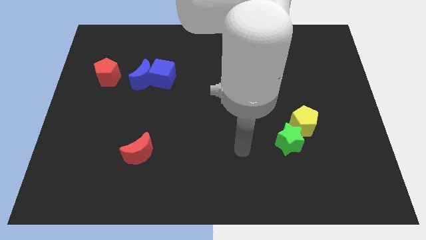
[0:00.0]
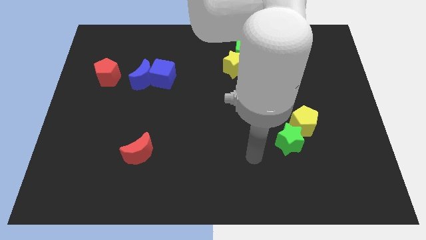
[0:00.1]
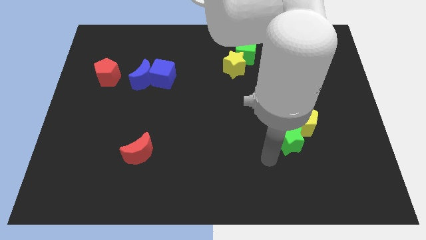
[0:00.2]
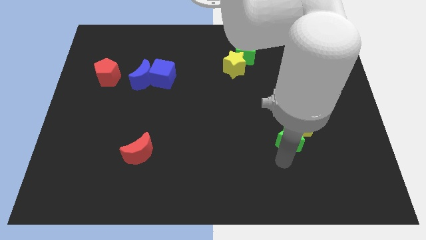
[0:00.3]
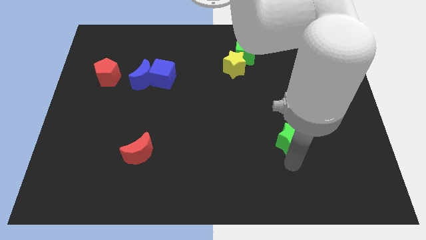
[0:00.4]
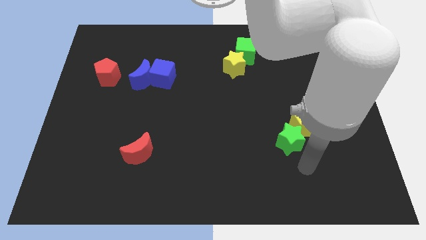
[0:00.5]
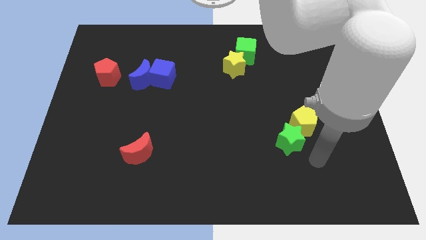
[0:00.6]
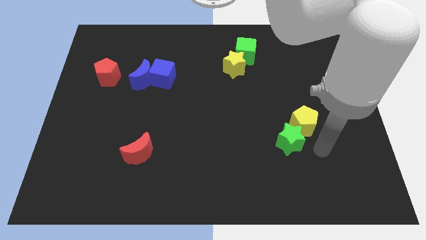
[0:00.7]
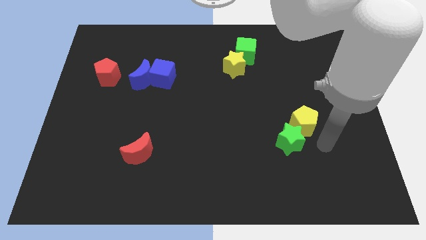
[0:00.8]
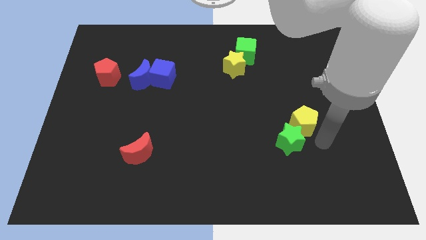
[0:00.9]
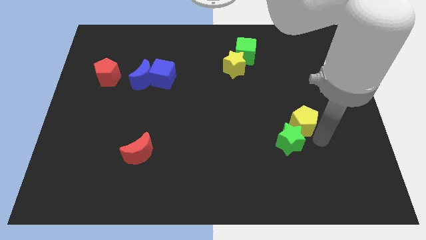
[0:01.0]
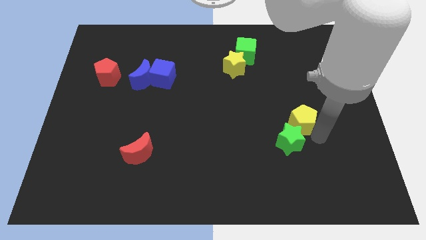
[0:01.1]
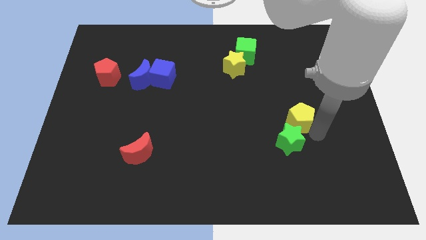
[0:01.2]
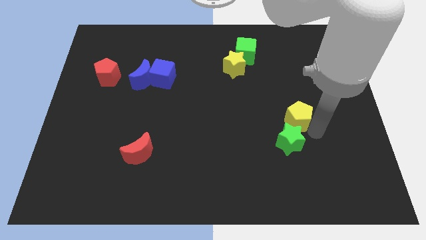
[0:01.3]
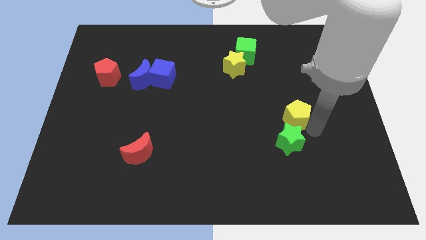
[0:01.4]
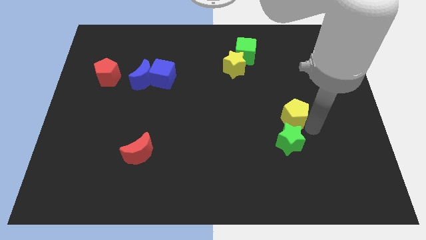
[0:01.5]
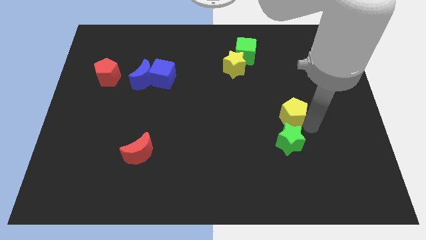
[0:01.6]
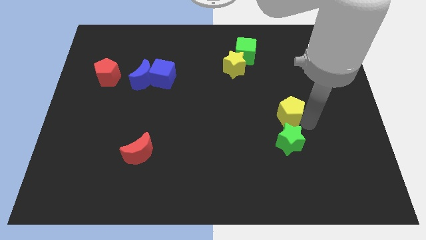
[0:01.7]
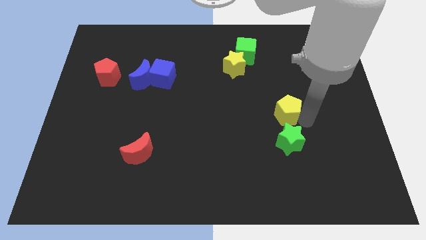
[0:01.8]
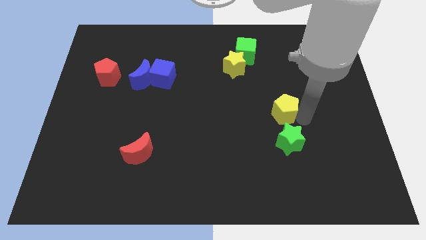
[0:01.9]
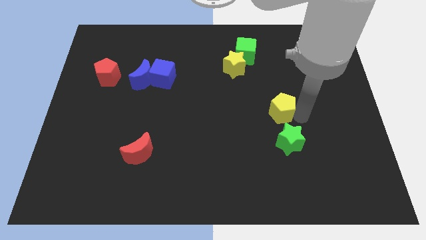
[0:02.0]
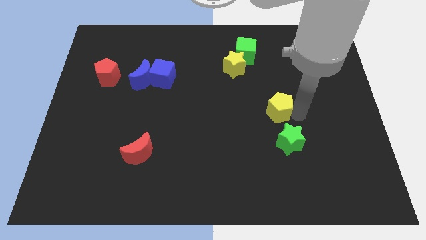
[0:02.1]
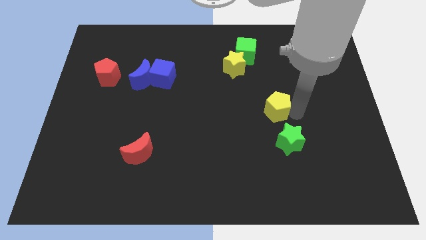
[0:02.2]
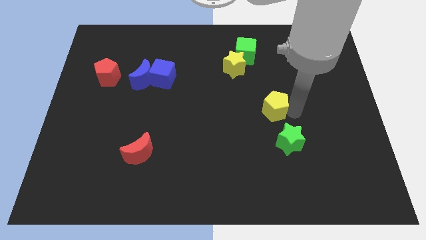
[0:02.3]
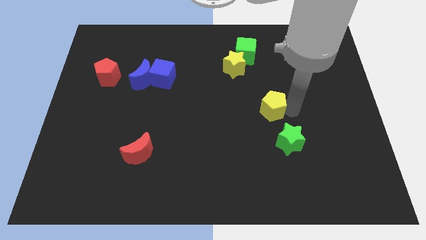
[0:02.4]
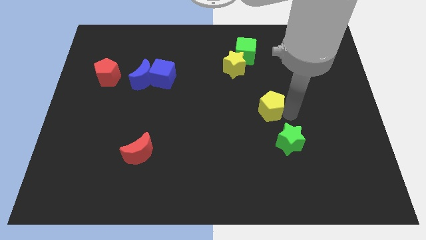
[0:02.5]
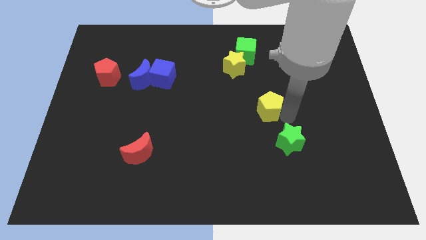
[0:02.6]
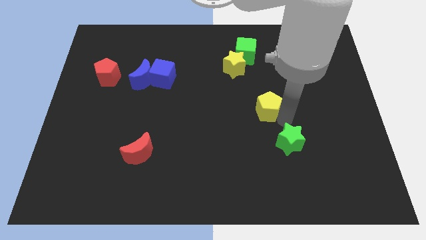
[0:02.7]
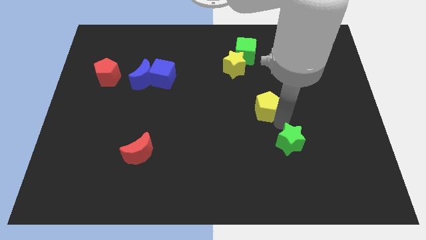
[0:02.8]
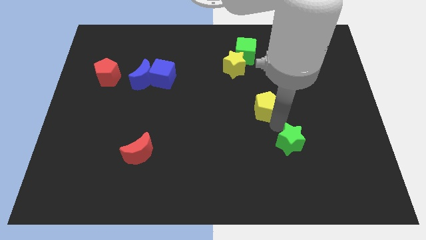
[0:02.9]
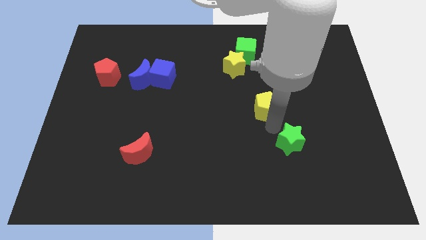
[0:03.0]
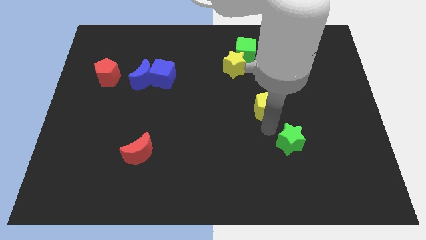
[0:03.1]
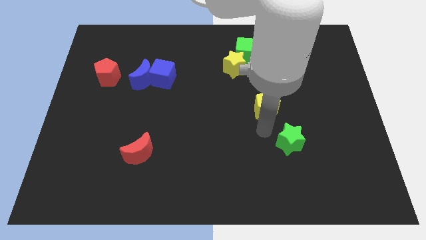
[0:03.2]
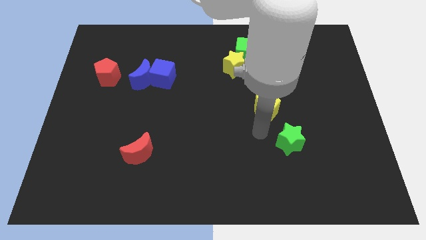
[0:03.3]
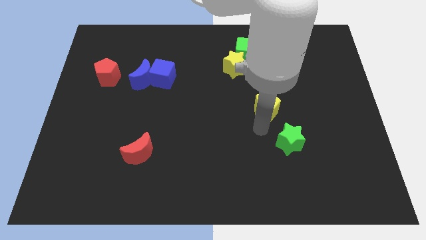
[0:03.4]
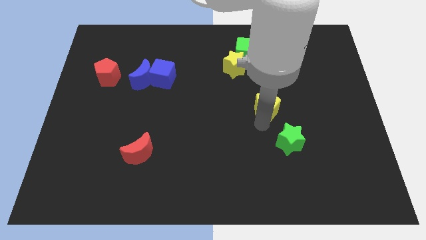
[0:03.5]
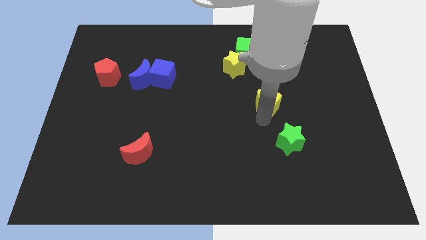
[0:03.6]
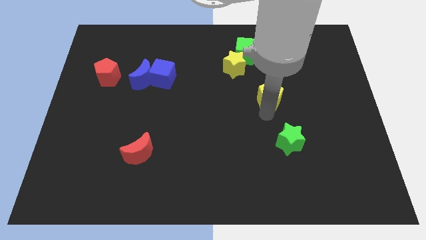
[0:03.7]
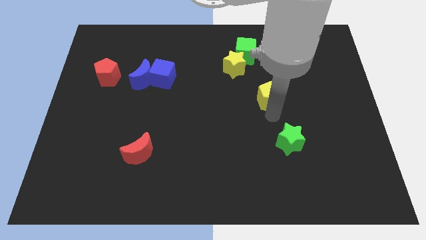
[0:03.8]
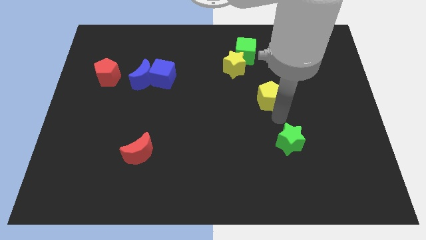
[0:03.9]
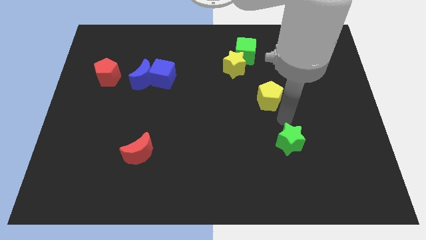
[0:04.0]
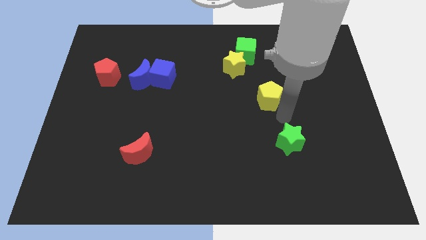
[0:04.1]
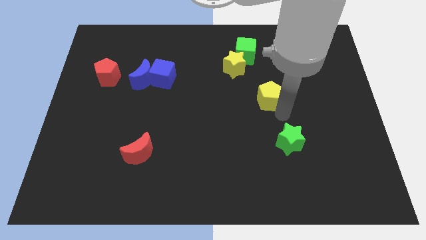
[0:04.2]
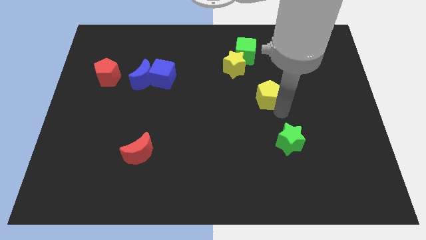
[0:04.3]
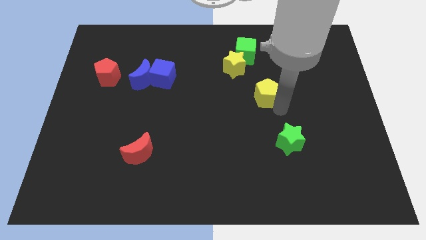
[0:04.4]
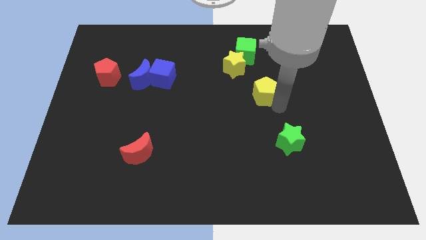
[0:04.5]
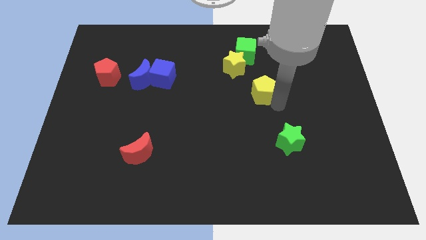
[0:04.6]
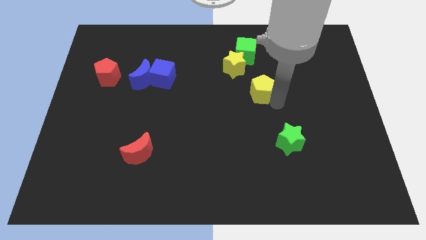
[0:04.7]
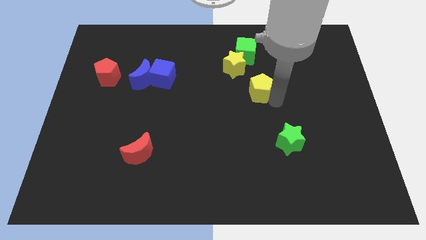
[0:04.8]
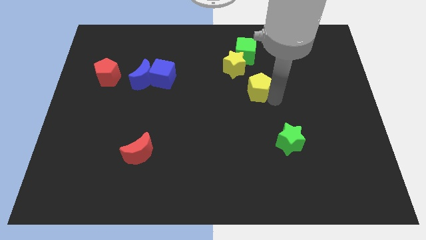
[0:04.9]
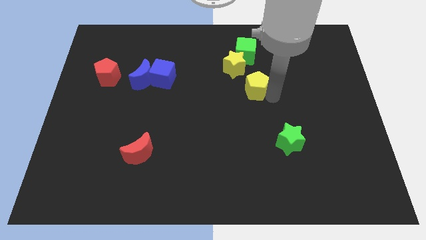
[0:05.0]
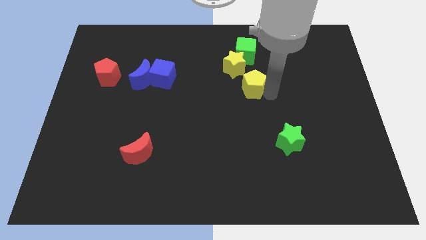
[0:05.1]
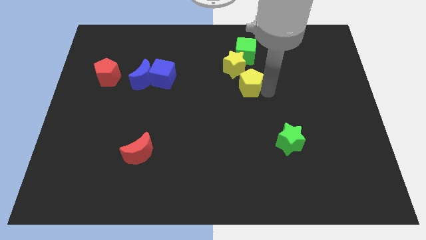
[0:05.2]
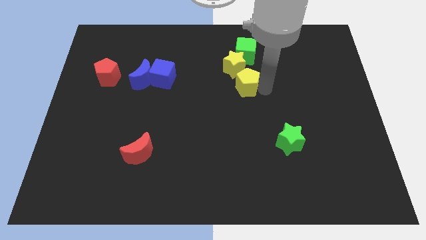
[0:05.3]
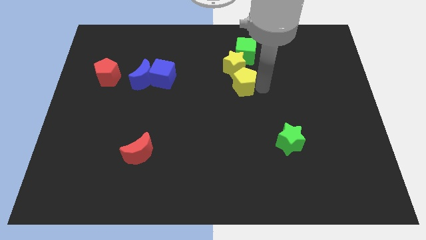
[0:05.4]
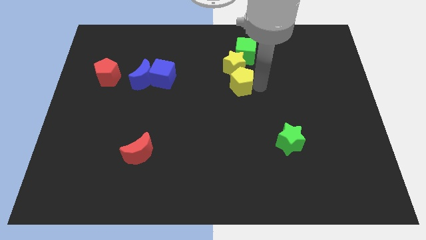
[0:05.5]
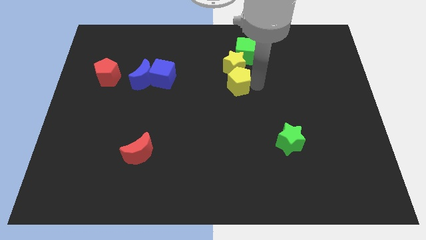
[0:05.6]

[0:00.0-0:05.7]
move the yellow pentagon towards the yellow star

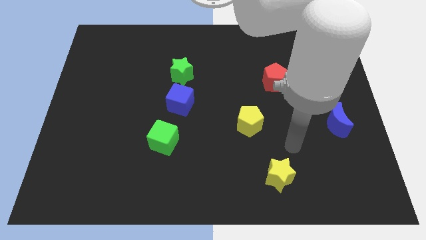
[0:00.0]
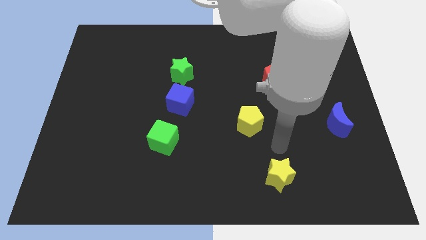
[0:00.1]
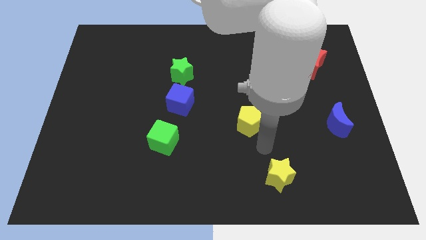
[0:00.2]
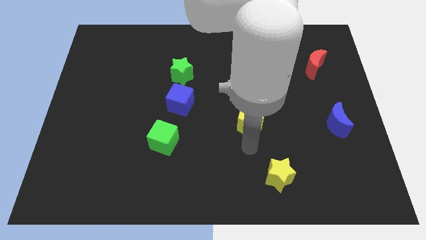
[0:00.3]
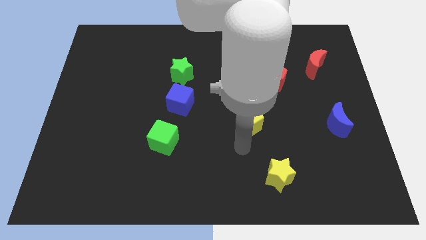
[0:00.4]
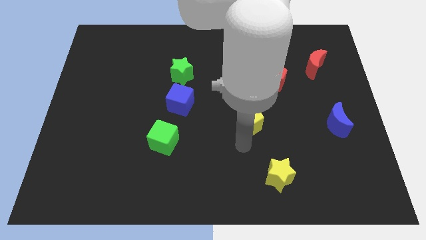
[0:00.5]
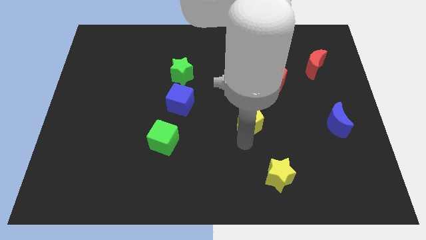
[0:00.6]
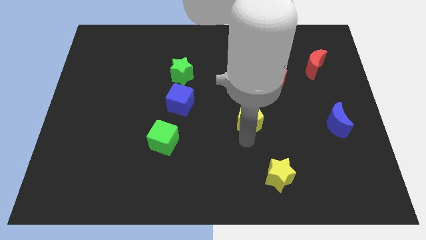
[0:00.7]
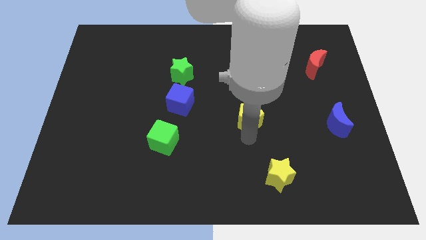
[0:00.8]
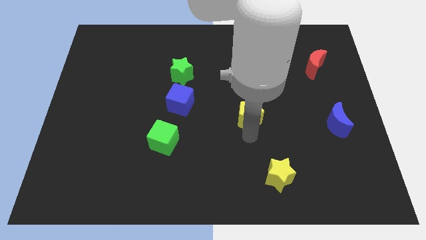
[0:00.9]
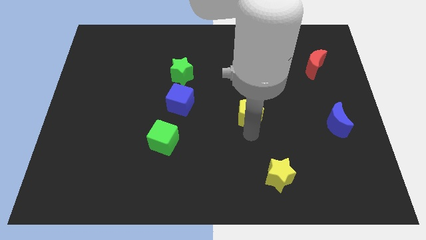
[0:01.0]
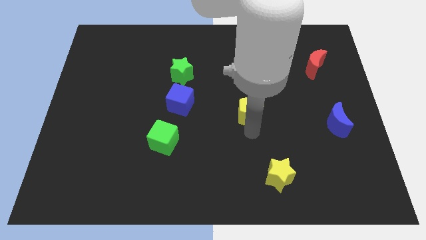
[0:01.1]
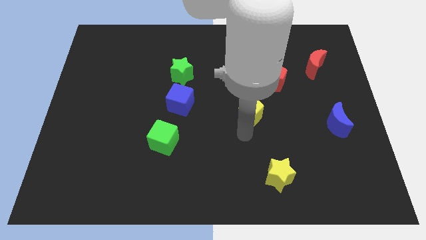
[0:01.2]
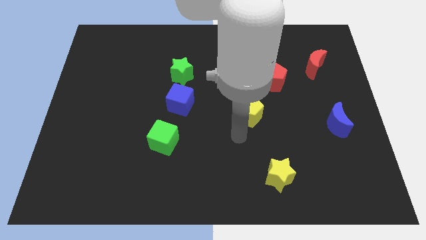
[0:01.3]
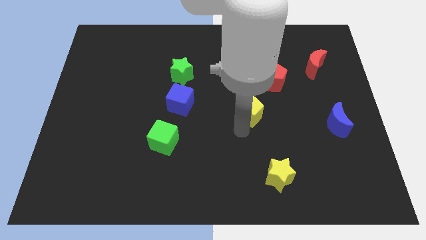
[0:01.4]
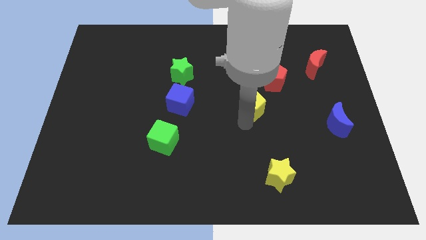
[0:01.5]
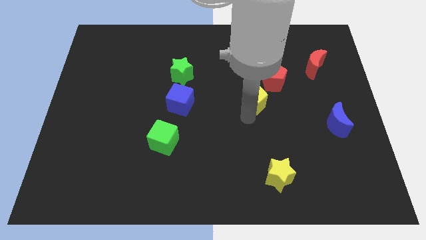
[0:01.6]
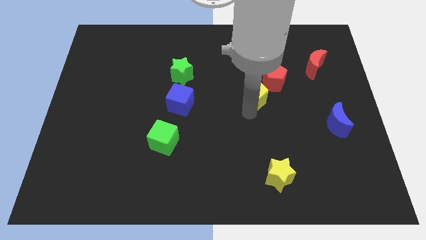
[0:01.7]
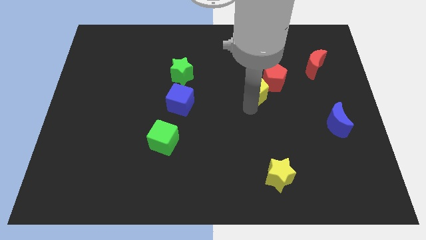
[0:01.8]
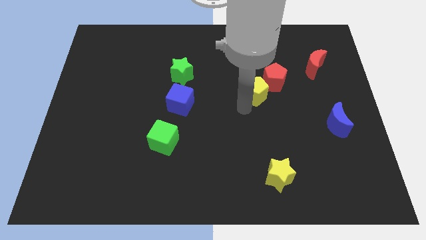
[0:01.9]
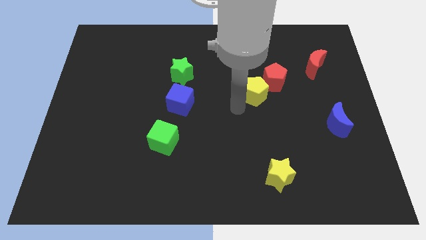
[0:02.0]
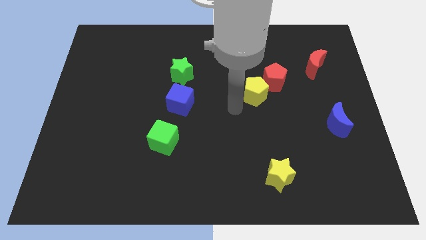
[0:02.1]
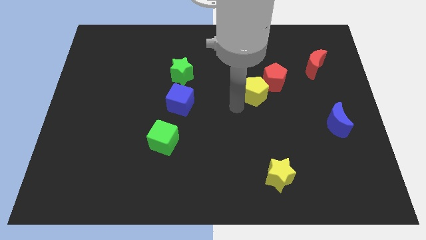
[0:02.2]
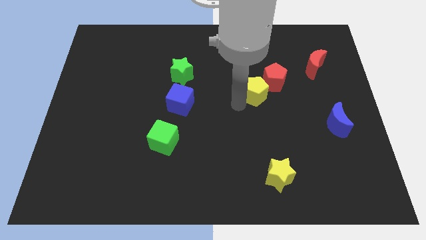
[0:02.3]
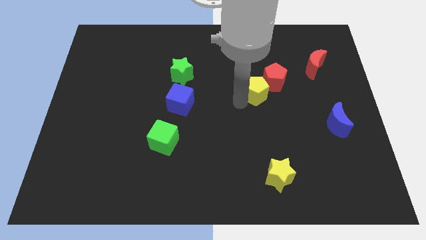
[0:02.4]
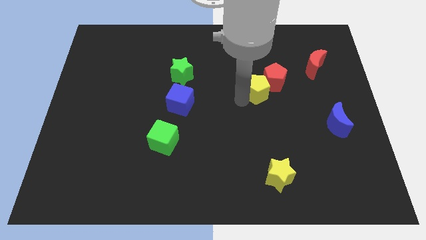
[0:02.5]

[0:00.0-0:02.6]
push the yellow pentagon close to the red pentagon
